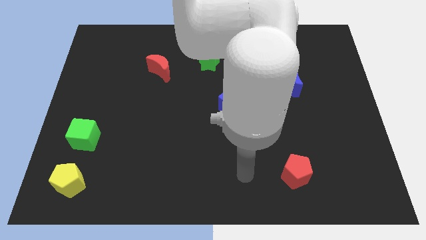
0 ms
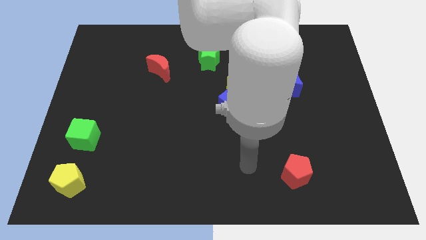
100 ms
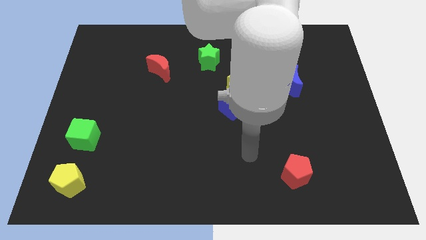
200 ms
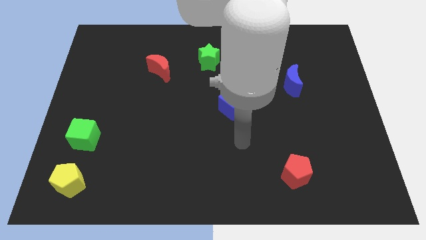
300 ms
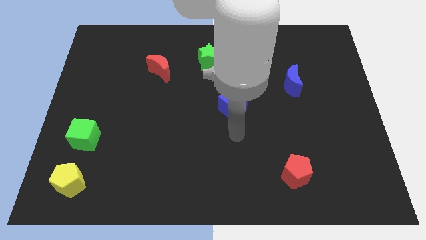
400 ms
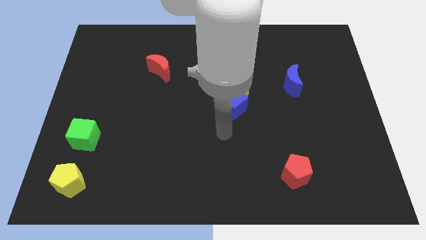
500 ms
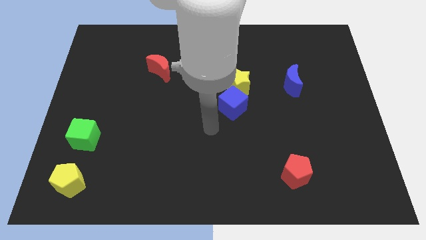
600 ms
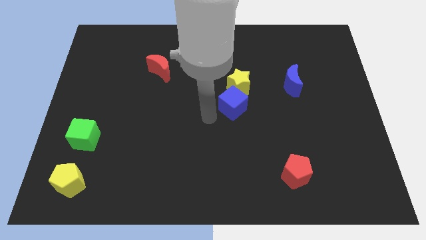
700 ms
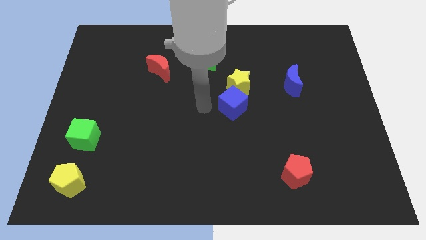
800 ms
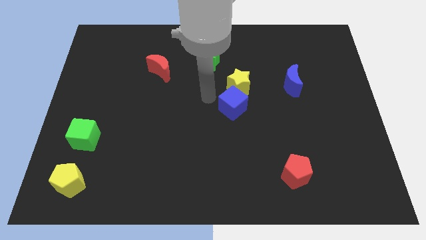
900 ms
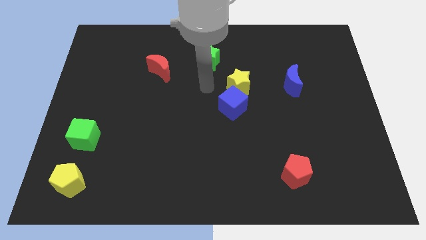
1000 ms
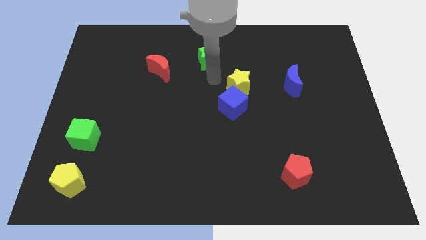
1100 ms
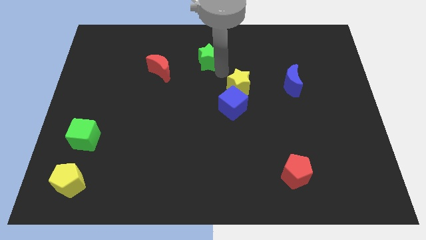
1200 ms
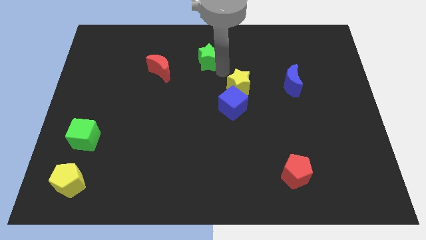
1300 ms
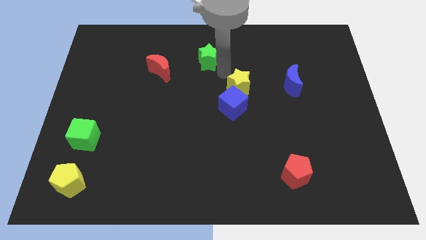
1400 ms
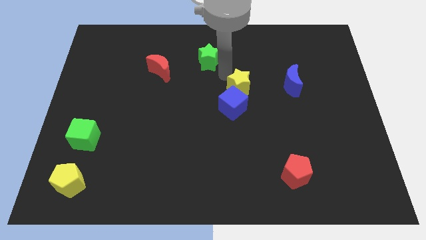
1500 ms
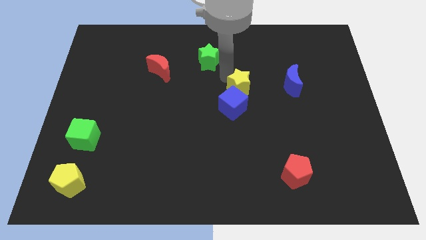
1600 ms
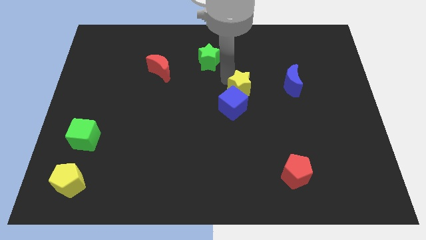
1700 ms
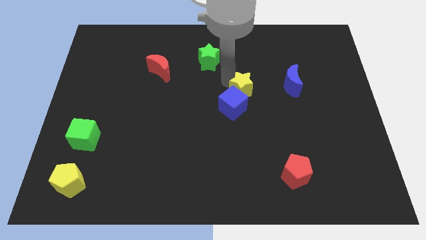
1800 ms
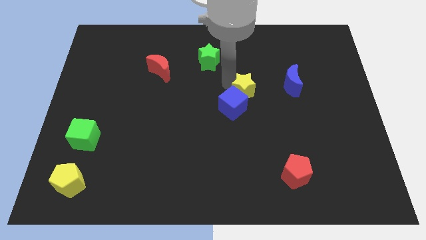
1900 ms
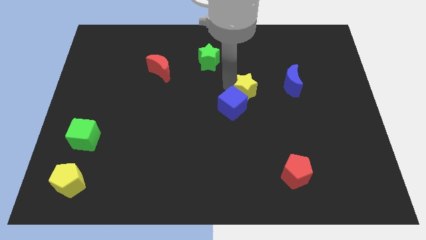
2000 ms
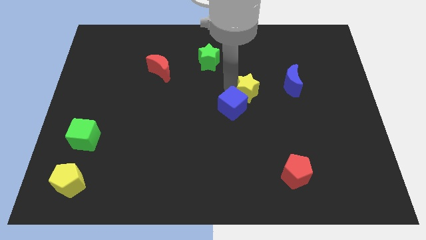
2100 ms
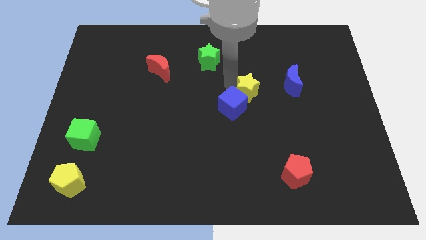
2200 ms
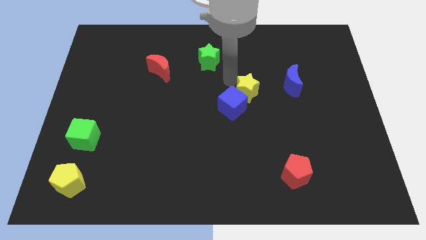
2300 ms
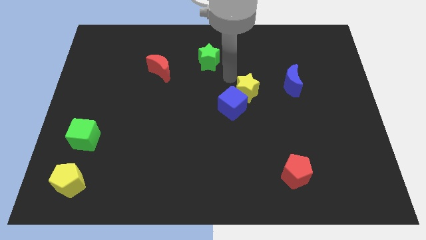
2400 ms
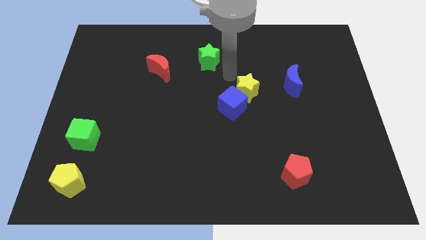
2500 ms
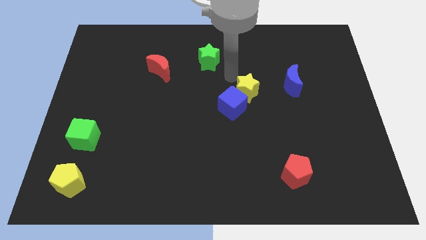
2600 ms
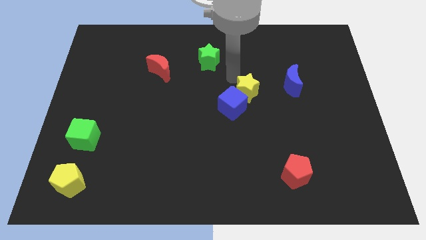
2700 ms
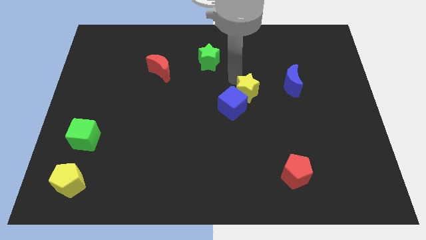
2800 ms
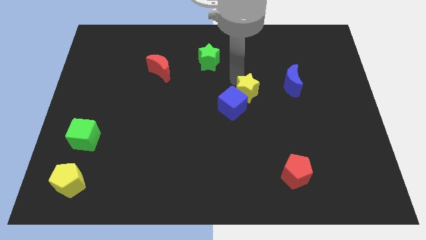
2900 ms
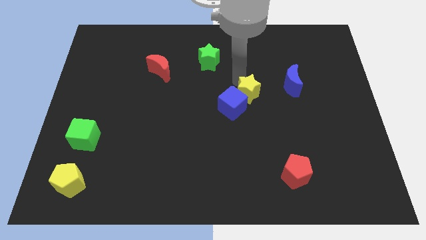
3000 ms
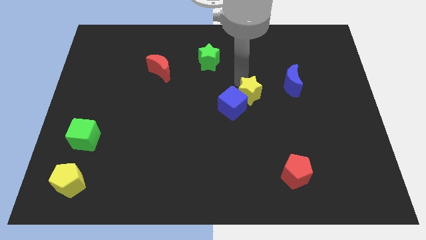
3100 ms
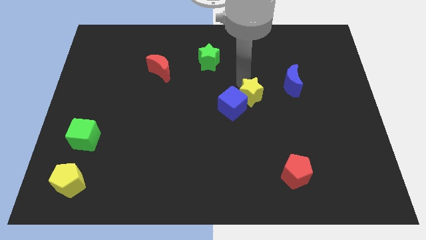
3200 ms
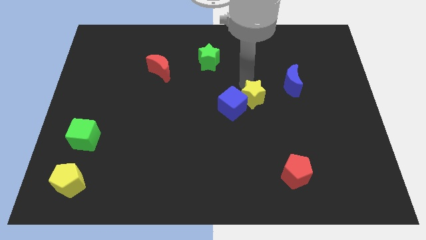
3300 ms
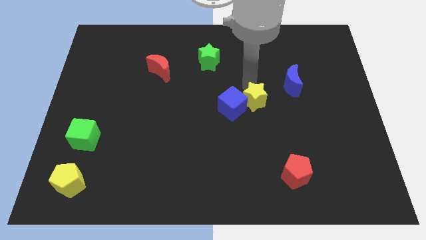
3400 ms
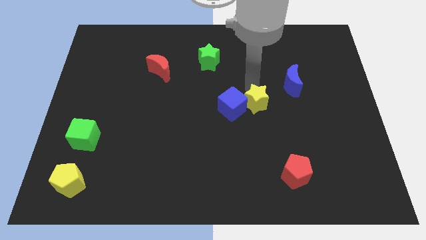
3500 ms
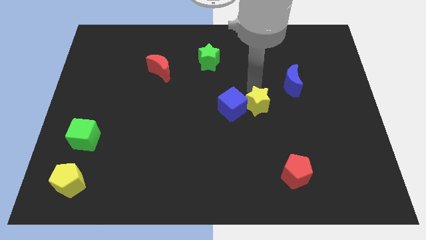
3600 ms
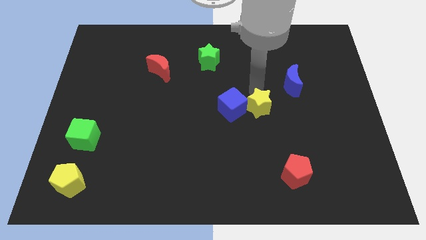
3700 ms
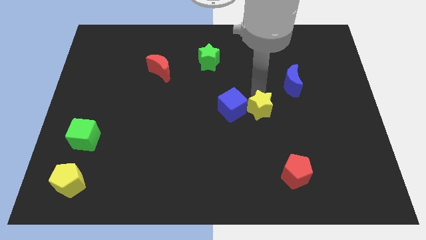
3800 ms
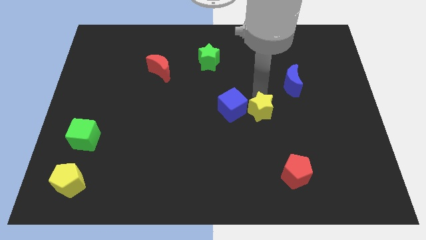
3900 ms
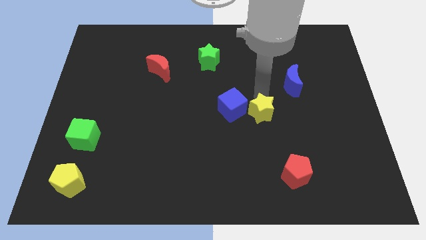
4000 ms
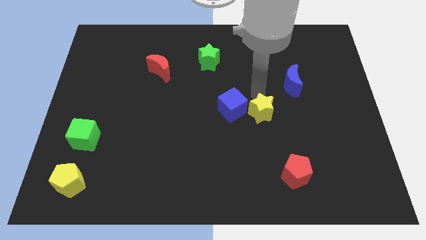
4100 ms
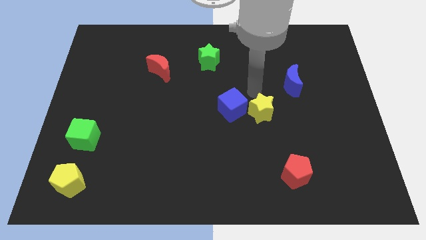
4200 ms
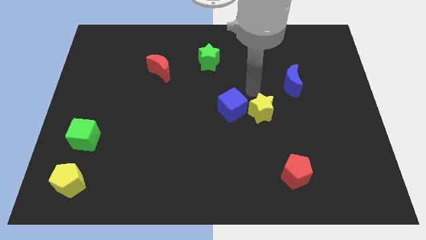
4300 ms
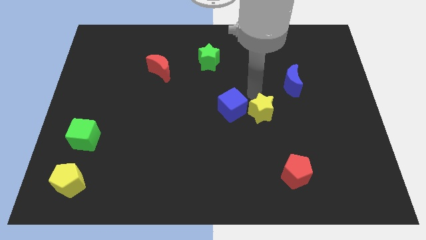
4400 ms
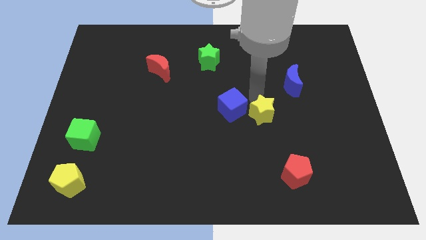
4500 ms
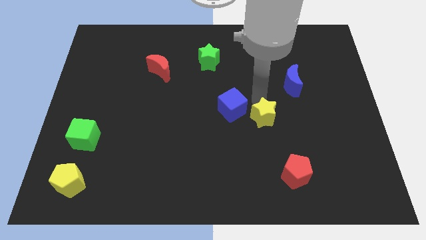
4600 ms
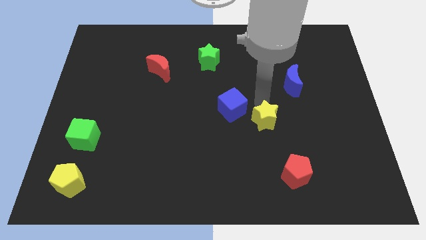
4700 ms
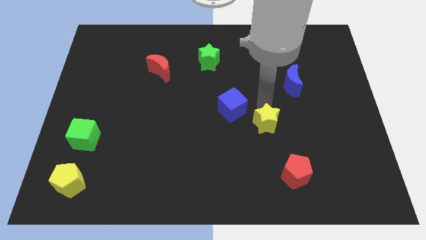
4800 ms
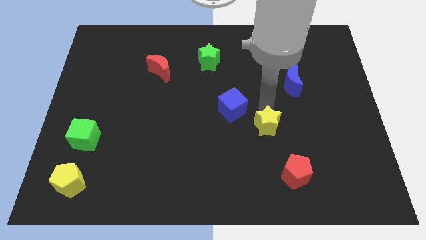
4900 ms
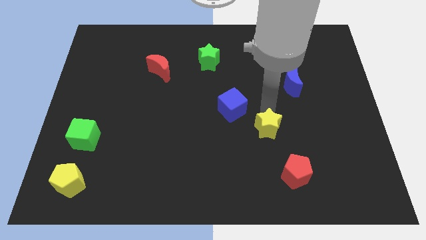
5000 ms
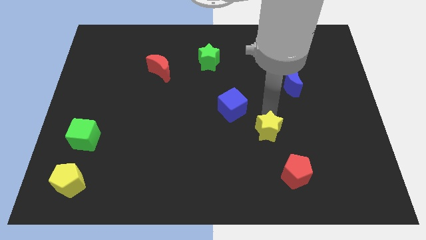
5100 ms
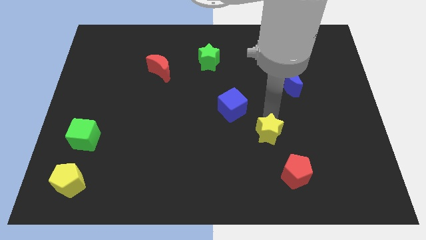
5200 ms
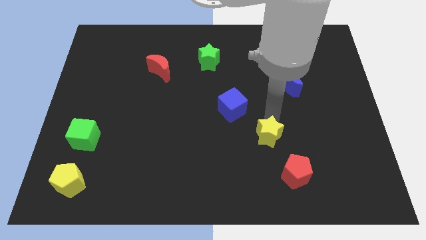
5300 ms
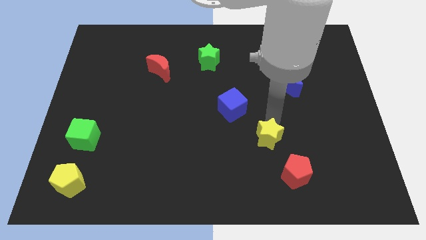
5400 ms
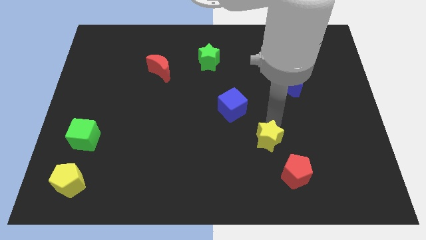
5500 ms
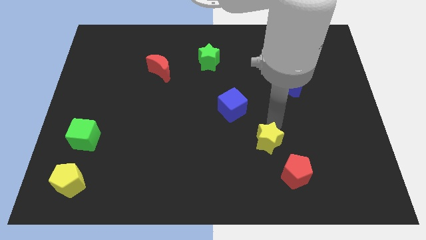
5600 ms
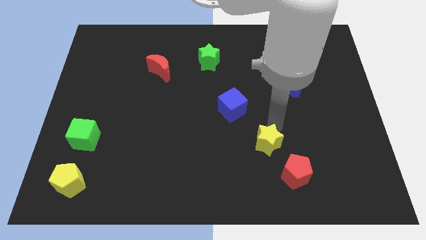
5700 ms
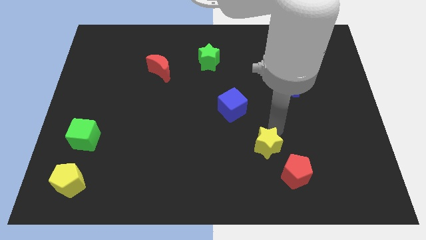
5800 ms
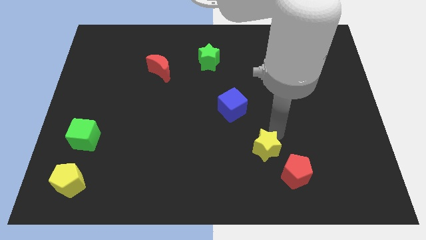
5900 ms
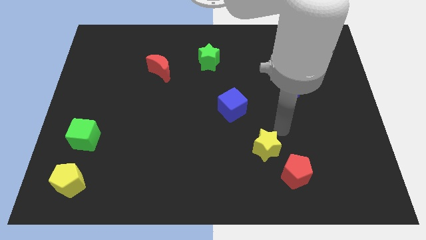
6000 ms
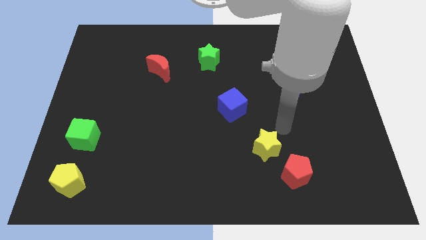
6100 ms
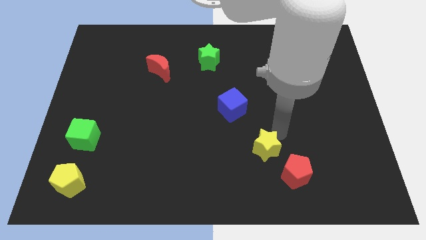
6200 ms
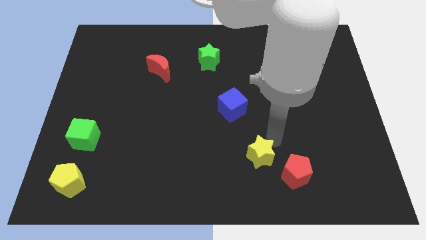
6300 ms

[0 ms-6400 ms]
push the yellow star just left of the red pentagon

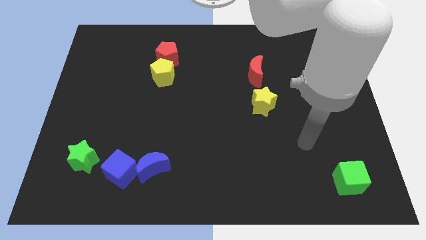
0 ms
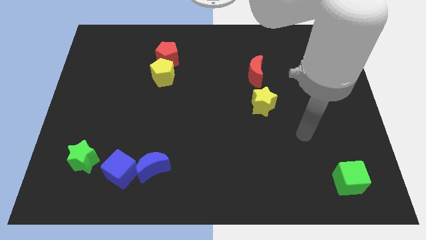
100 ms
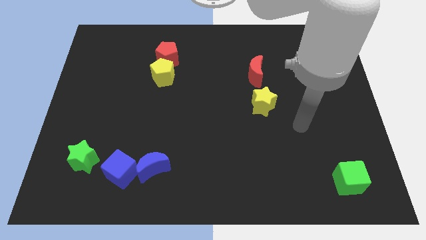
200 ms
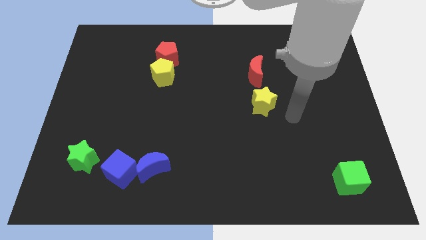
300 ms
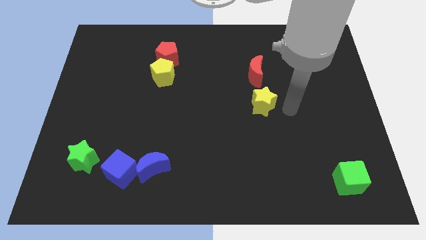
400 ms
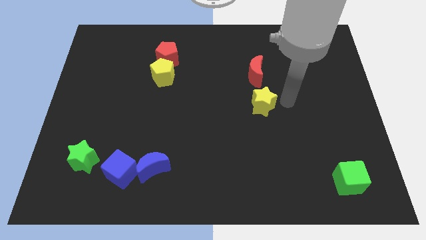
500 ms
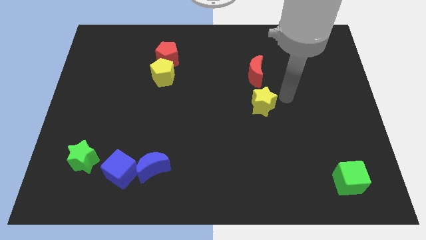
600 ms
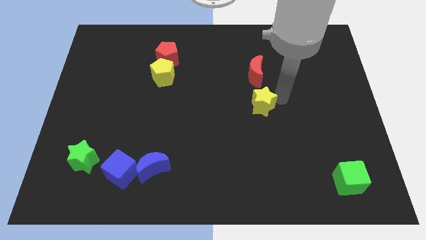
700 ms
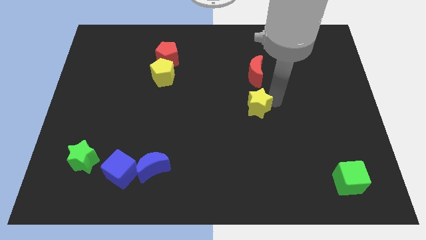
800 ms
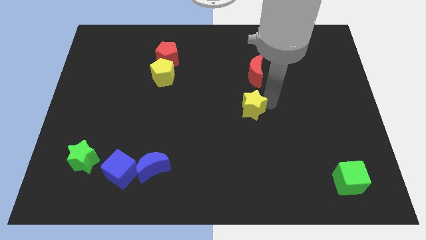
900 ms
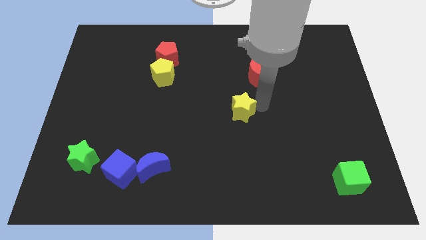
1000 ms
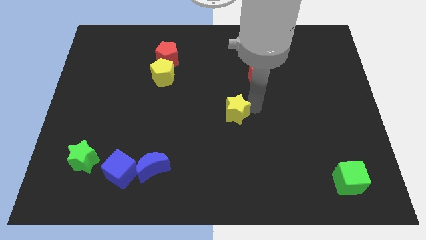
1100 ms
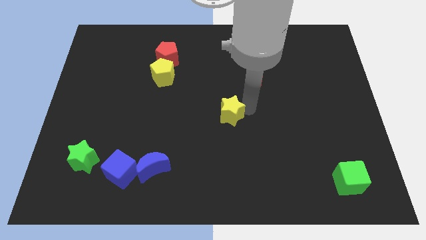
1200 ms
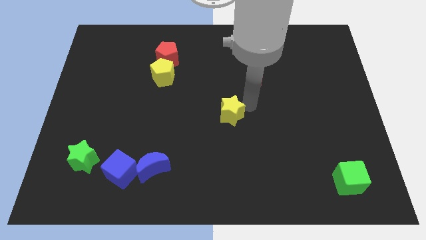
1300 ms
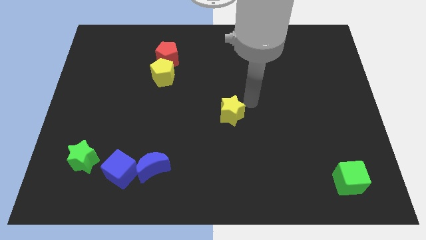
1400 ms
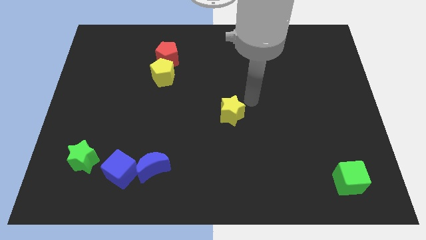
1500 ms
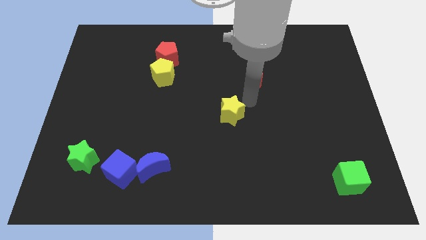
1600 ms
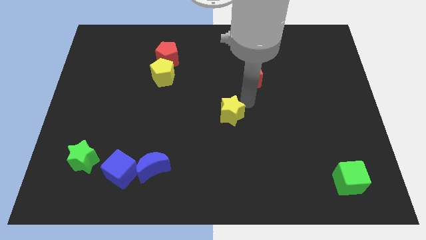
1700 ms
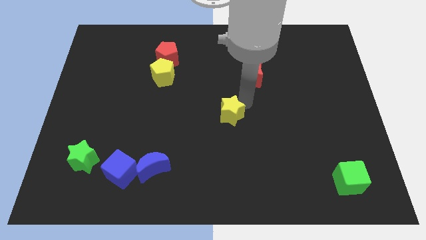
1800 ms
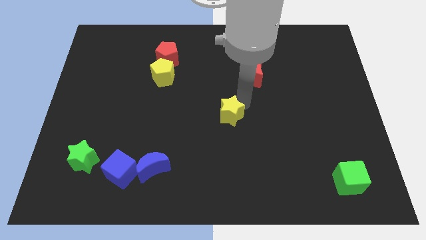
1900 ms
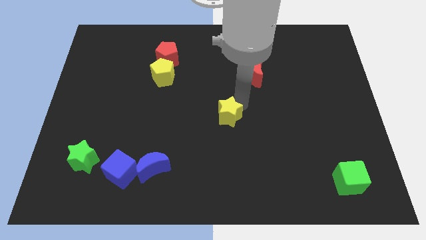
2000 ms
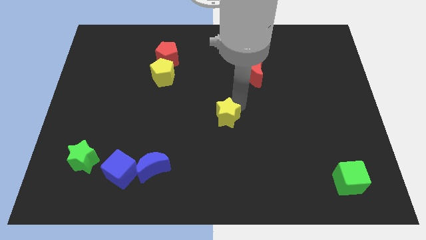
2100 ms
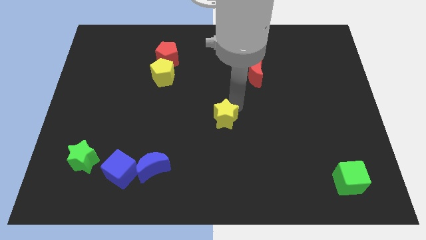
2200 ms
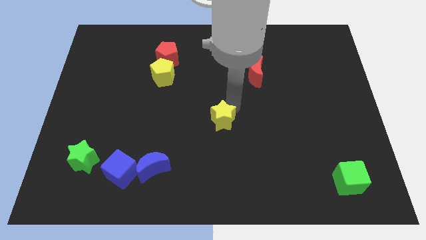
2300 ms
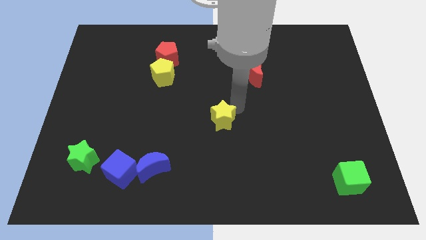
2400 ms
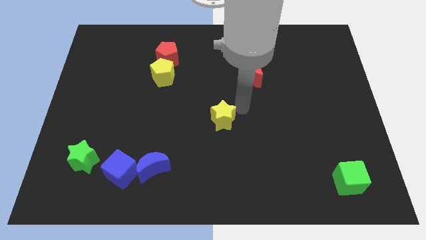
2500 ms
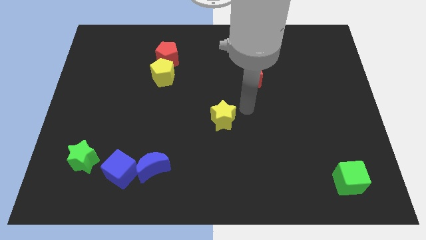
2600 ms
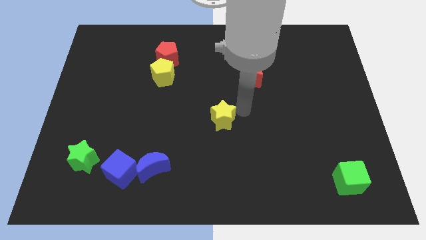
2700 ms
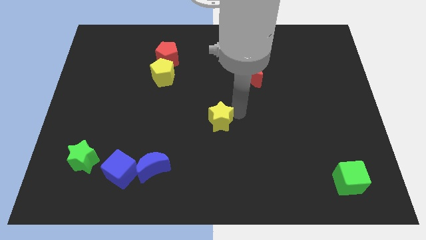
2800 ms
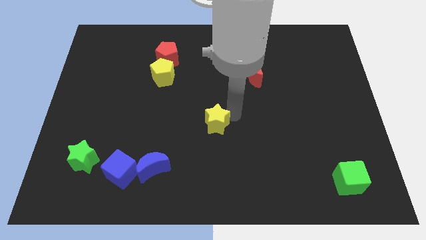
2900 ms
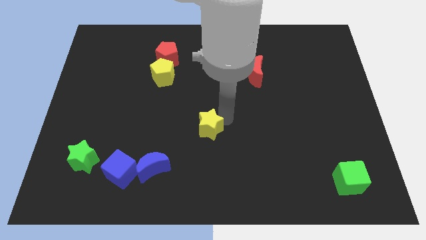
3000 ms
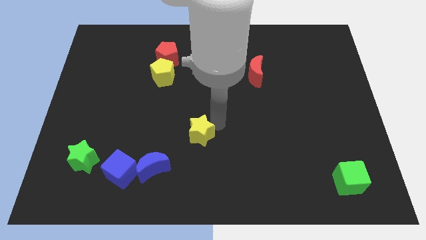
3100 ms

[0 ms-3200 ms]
move the yellow star diagonally up and to the right of the blue moon
